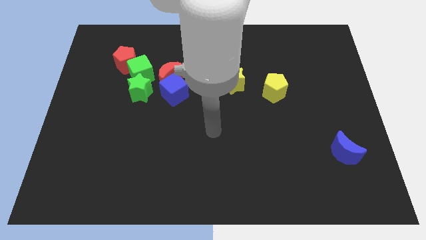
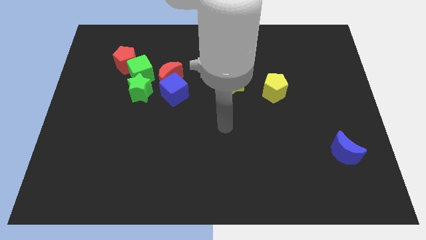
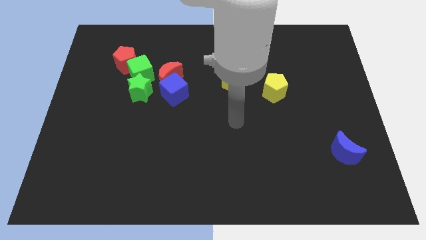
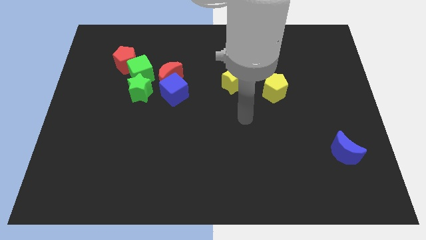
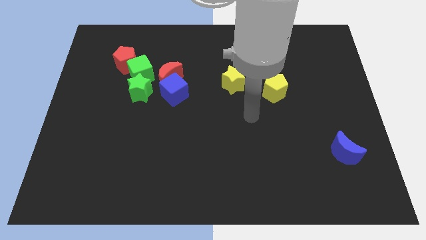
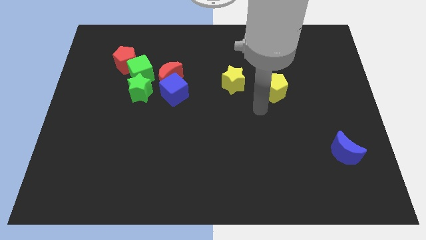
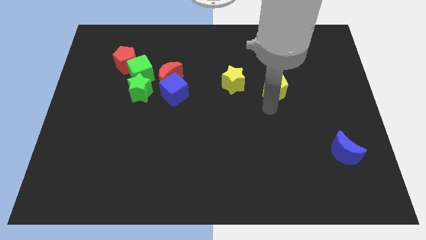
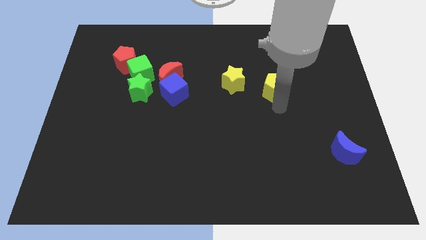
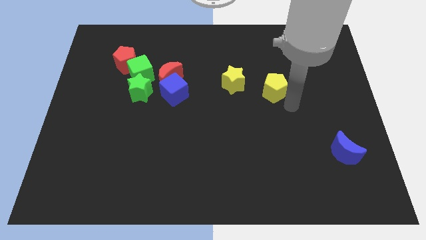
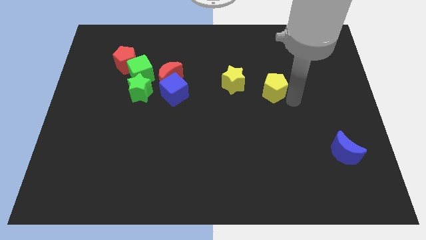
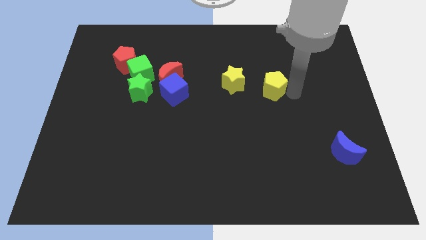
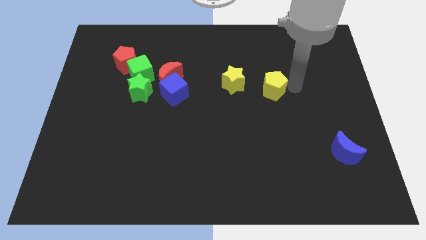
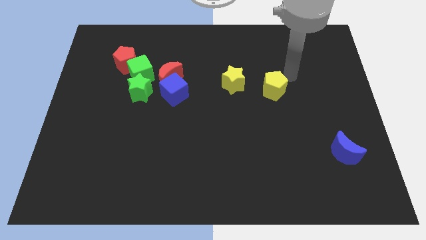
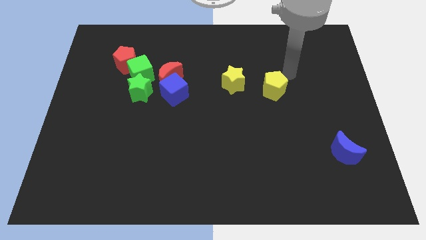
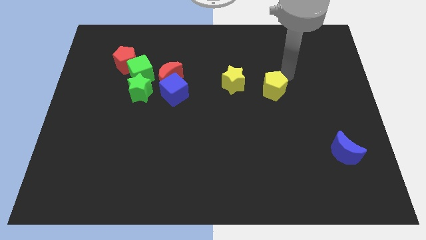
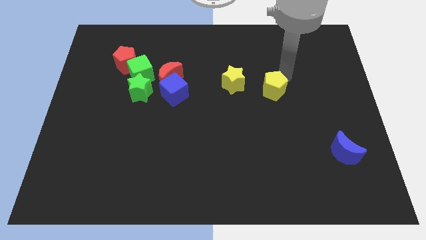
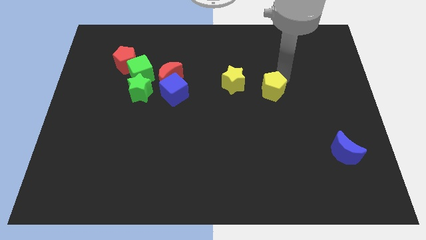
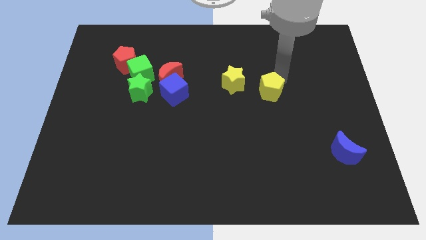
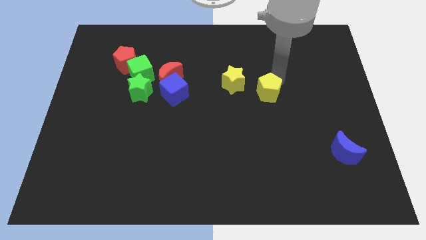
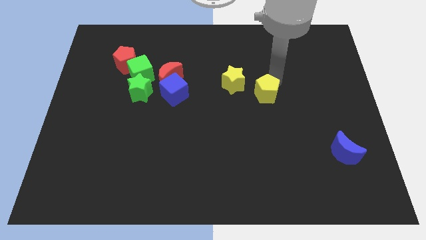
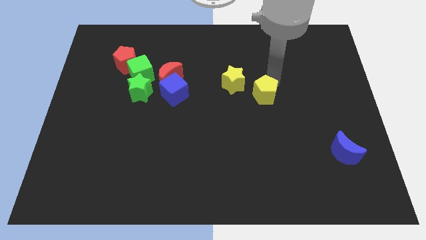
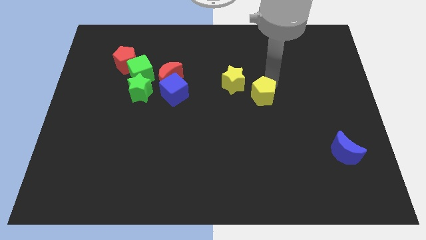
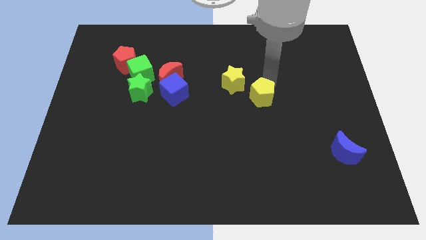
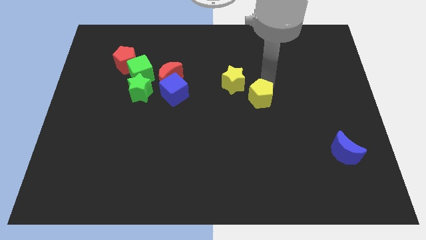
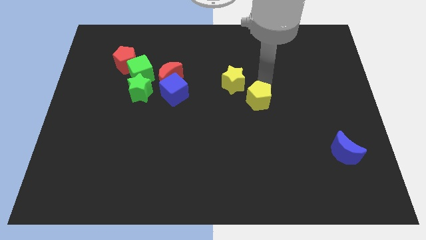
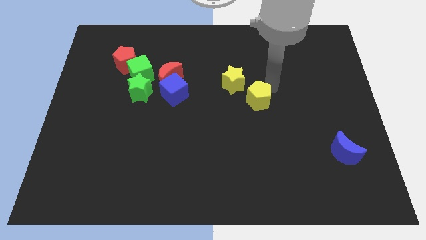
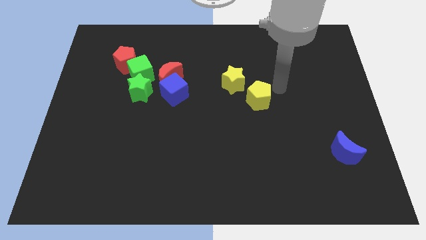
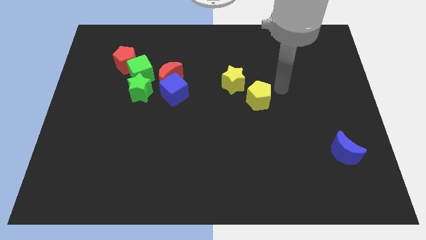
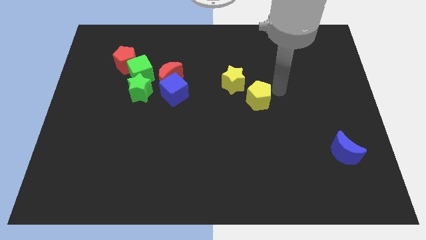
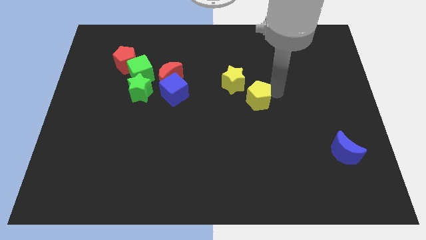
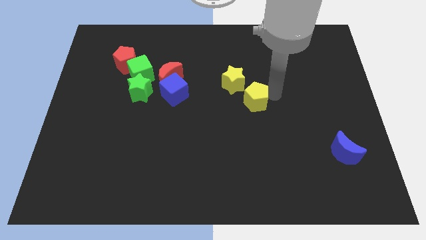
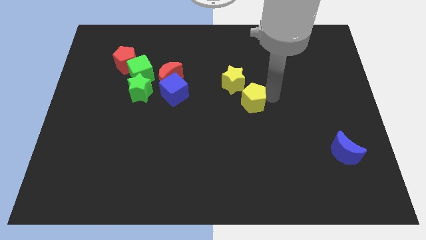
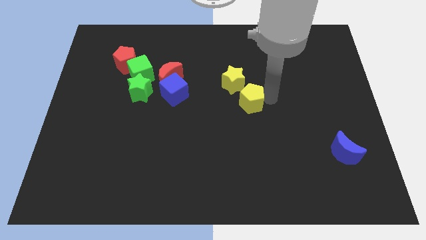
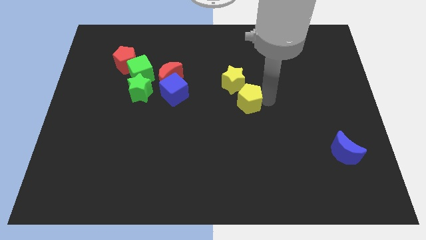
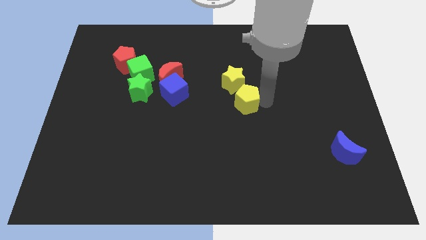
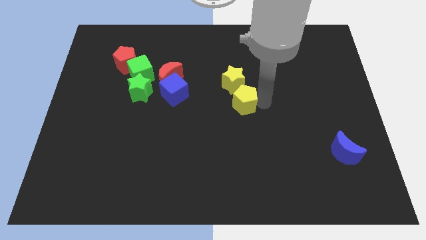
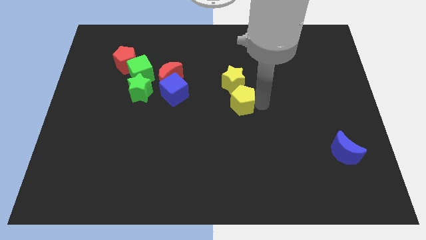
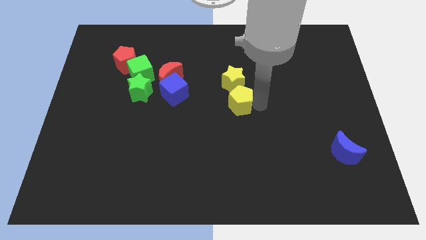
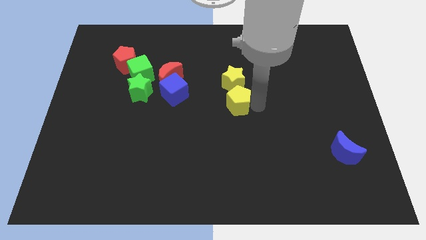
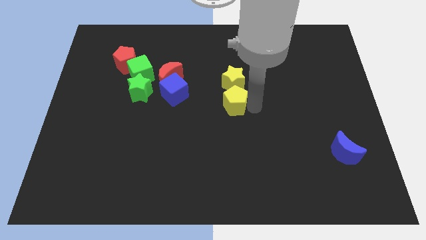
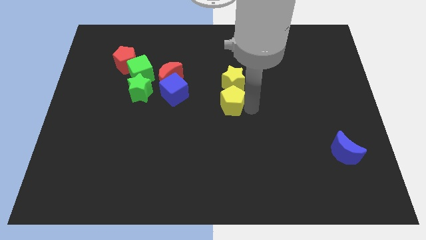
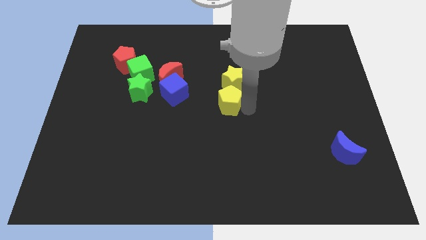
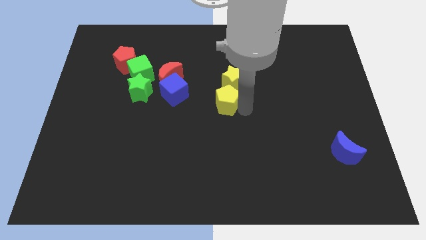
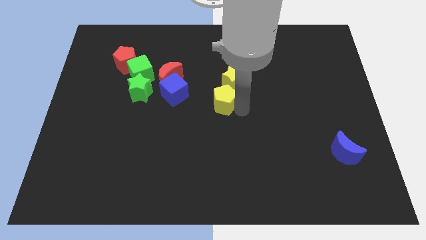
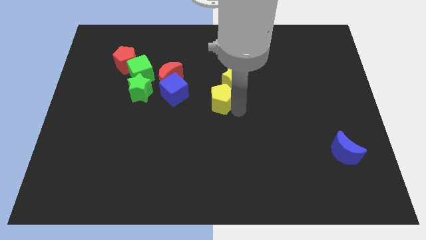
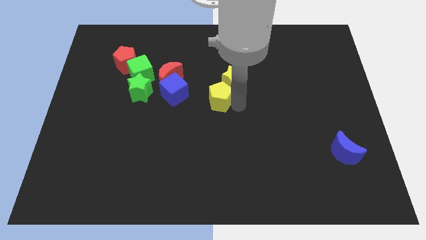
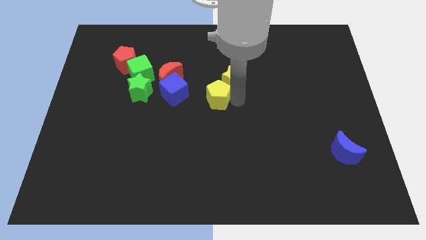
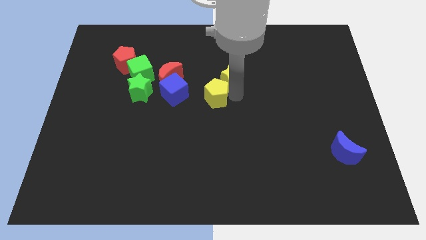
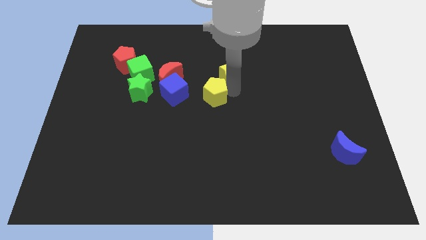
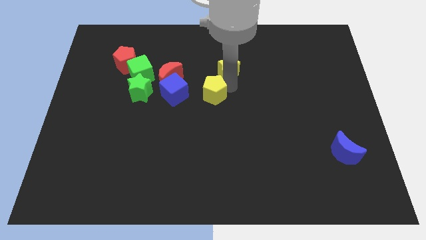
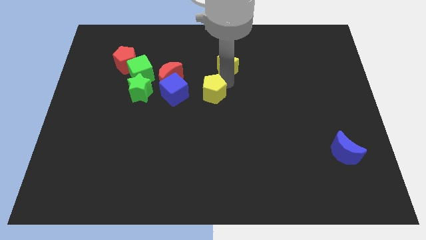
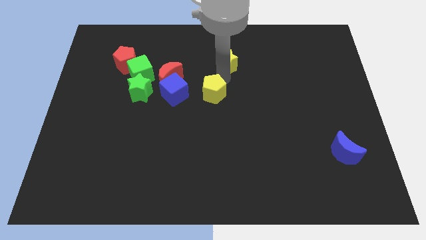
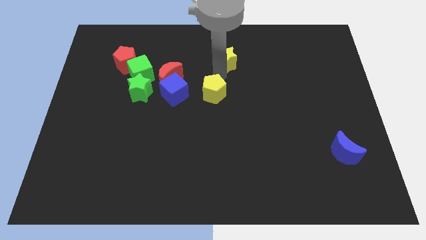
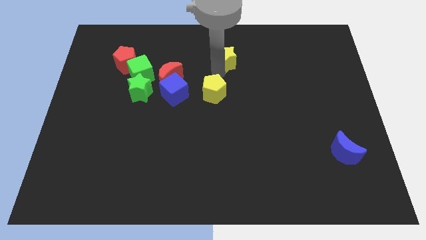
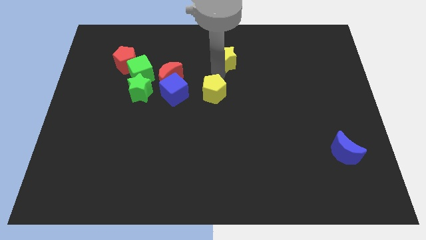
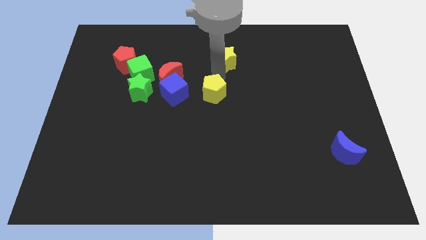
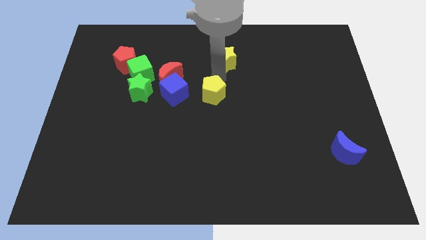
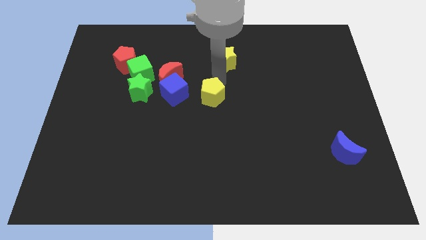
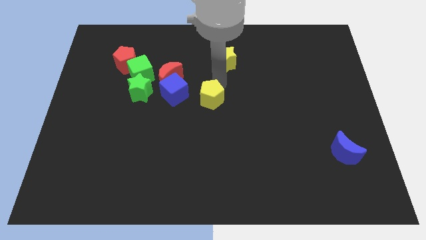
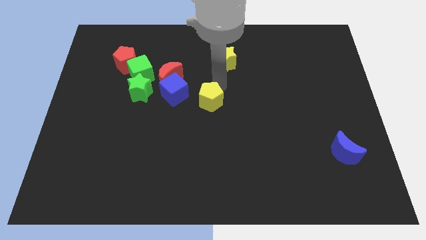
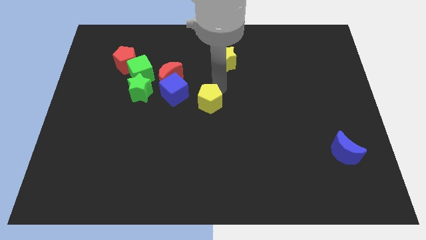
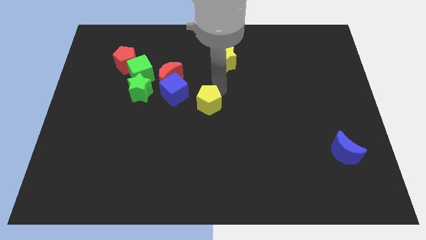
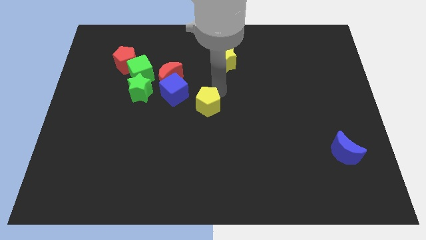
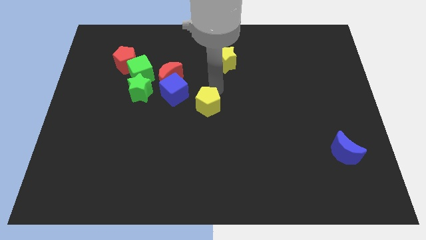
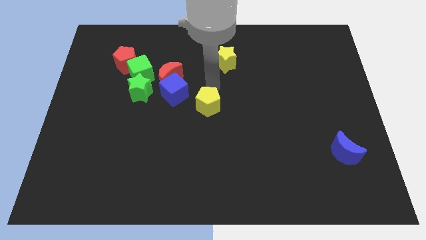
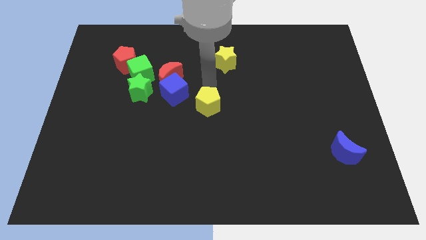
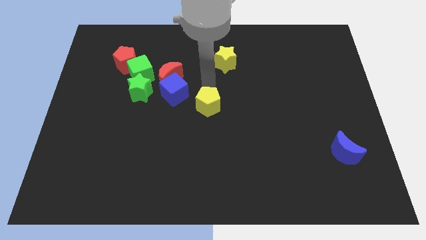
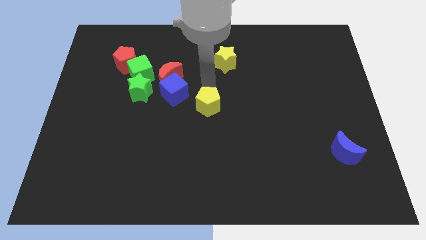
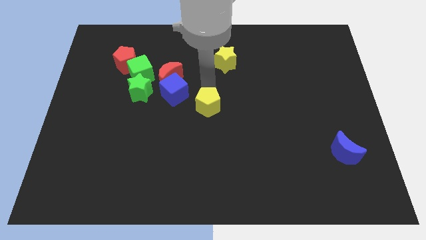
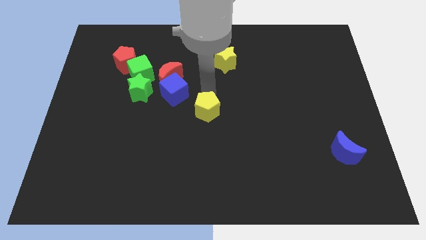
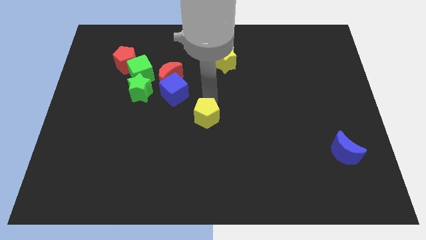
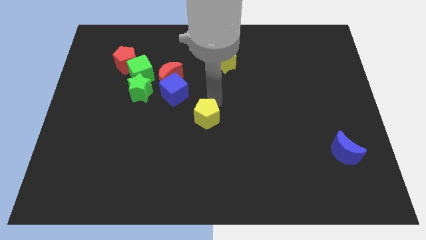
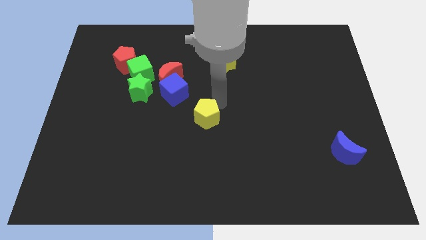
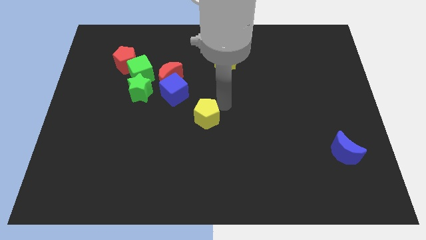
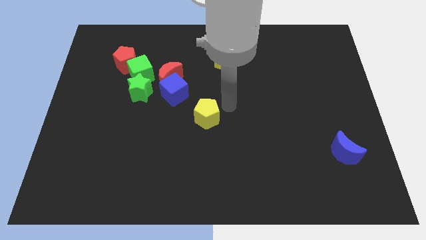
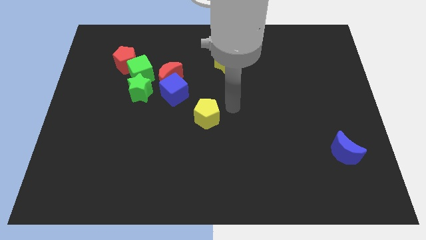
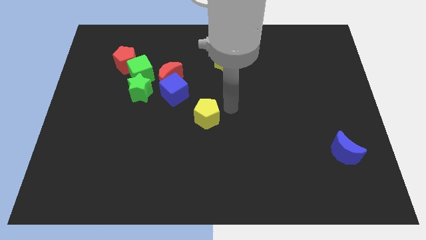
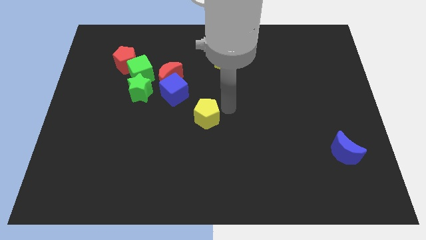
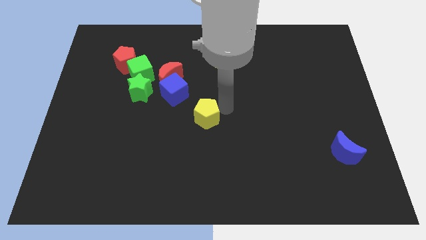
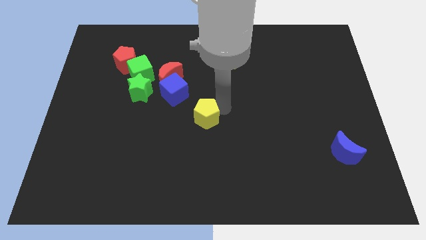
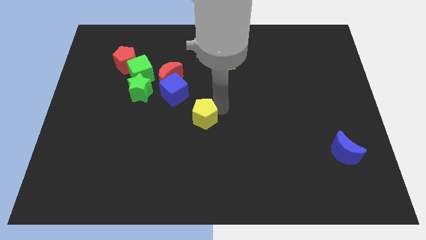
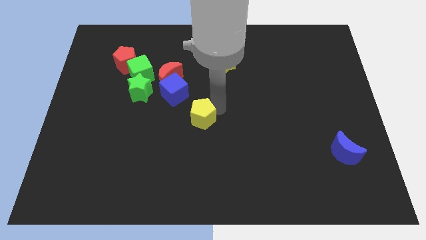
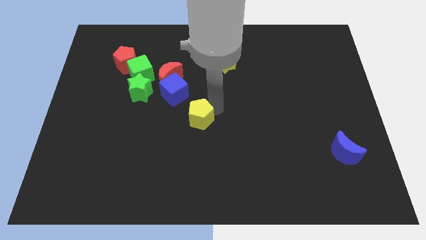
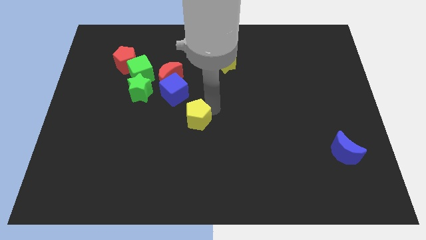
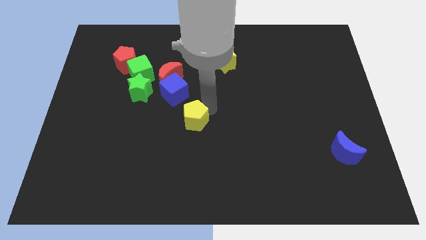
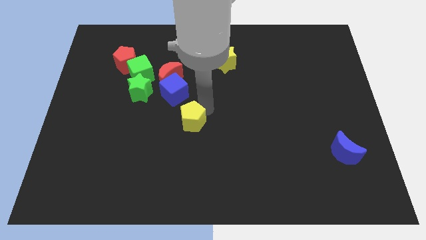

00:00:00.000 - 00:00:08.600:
put the yellow pentagon below the blue cube
